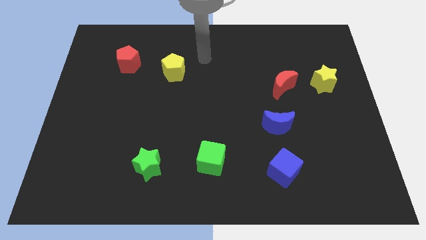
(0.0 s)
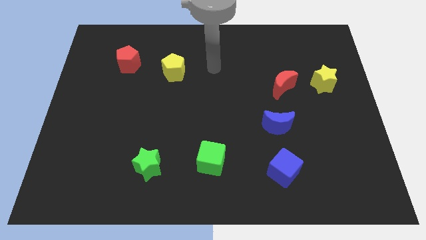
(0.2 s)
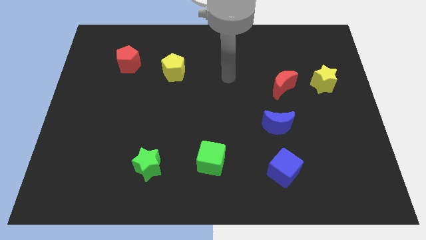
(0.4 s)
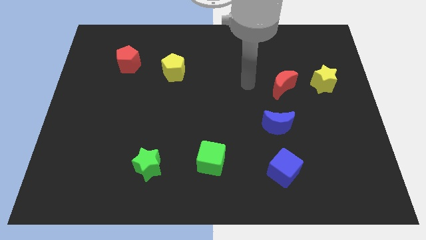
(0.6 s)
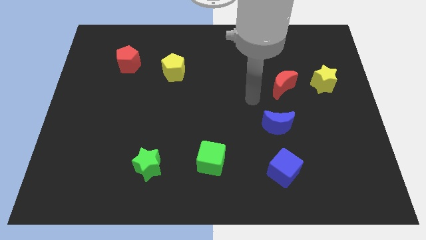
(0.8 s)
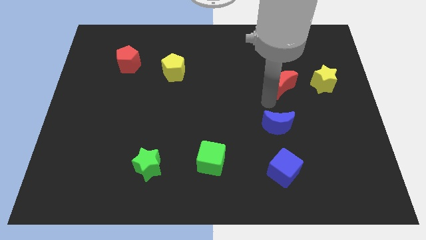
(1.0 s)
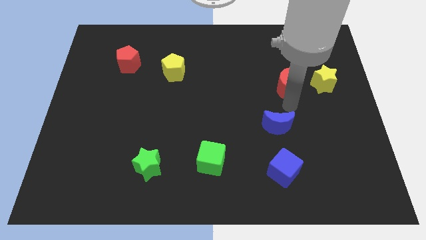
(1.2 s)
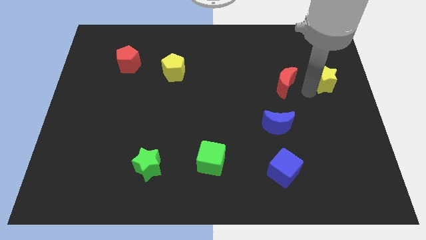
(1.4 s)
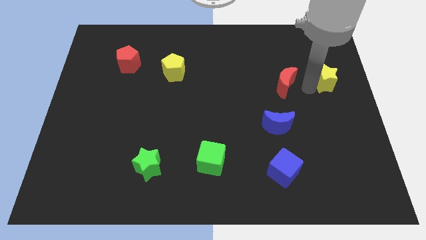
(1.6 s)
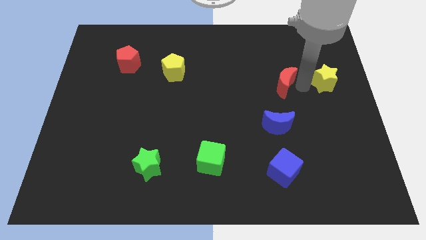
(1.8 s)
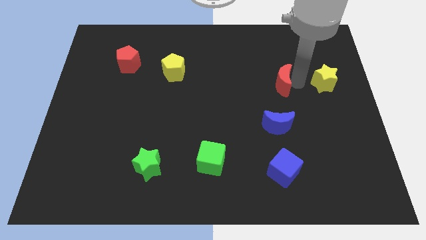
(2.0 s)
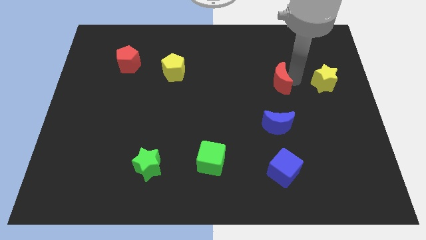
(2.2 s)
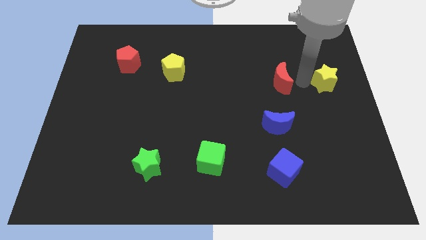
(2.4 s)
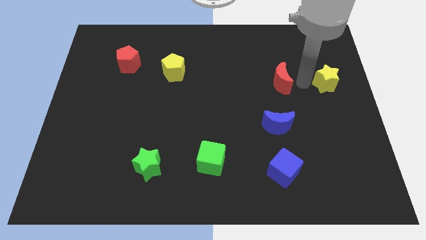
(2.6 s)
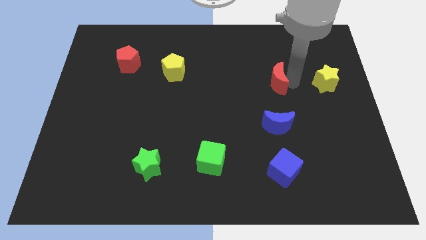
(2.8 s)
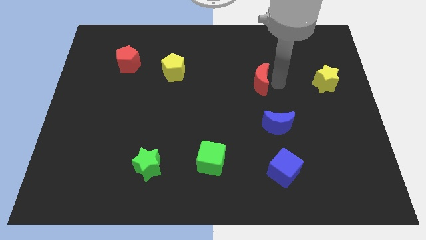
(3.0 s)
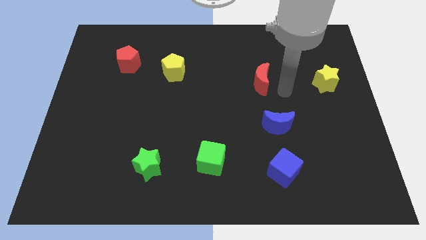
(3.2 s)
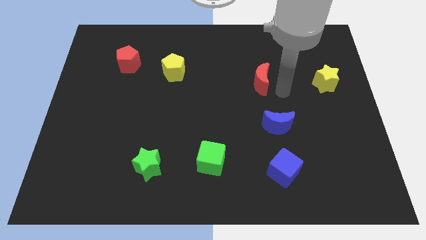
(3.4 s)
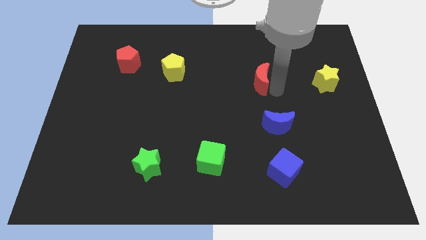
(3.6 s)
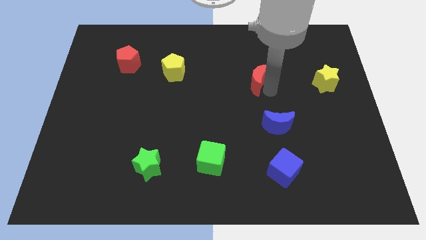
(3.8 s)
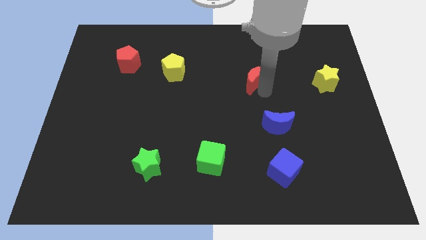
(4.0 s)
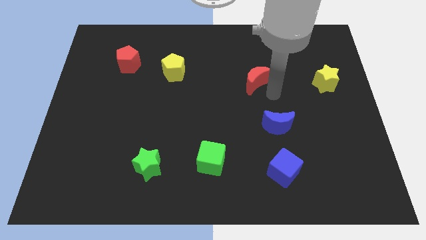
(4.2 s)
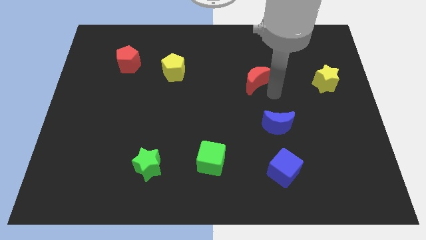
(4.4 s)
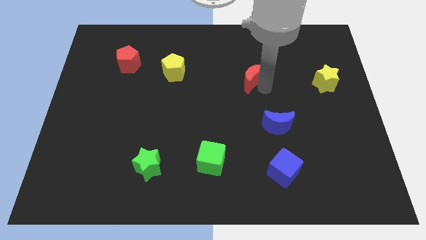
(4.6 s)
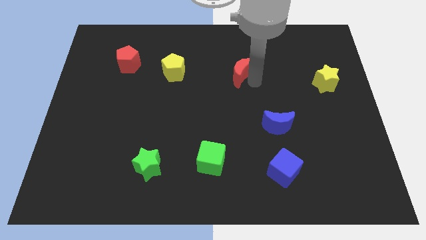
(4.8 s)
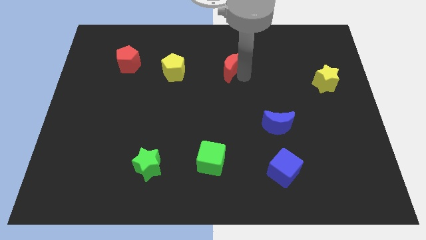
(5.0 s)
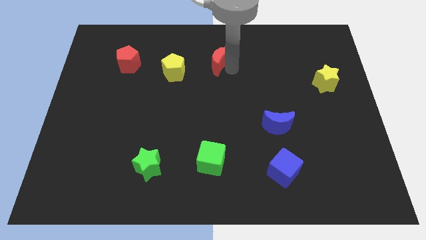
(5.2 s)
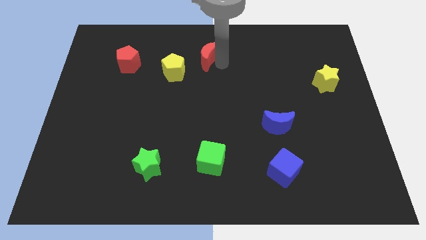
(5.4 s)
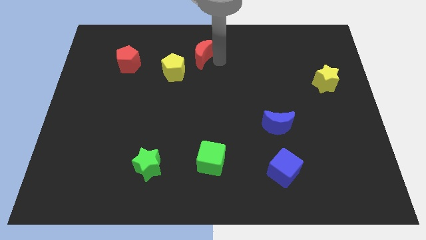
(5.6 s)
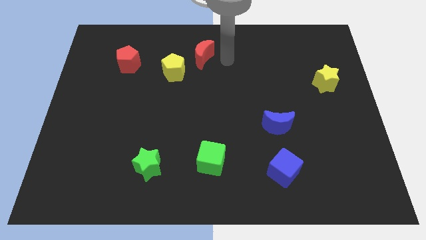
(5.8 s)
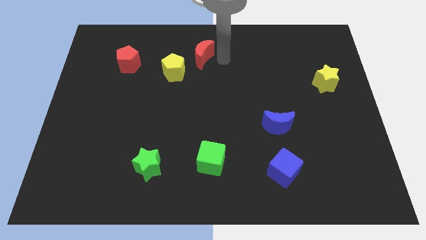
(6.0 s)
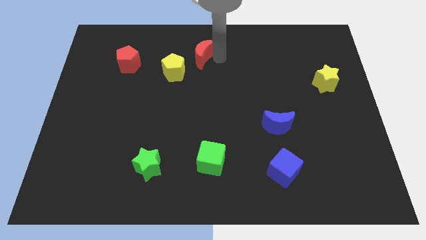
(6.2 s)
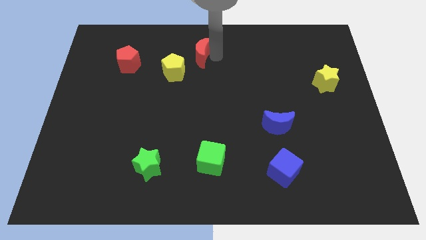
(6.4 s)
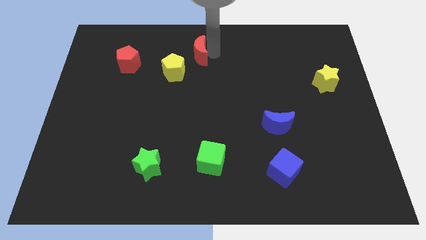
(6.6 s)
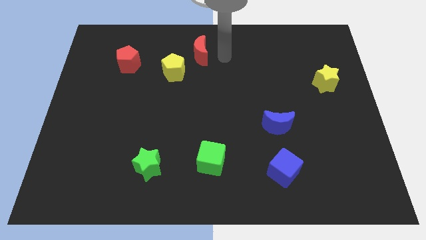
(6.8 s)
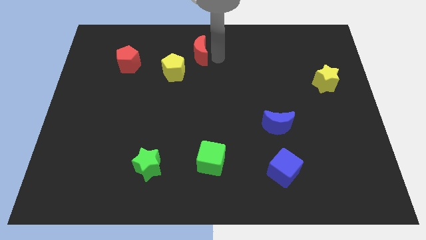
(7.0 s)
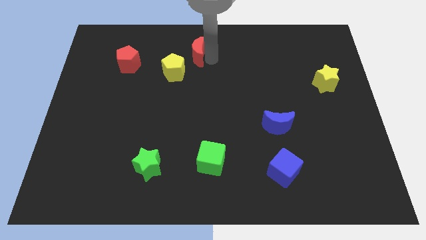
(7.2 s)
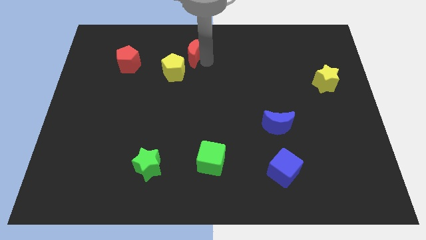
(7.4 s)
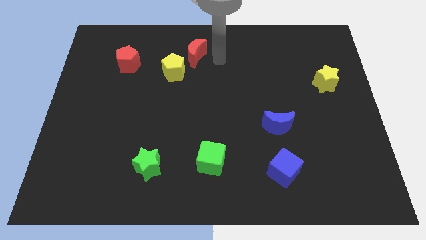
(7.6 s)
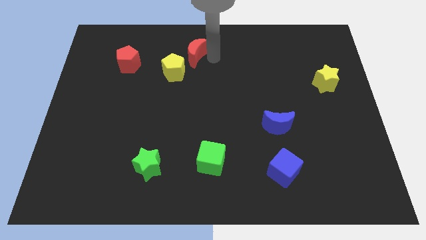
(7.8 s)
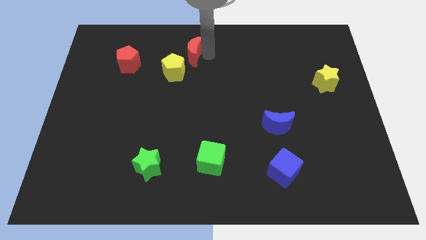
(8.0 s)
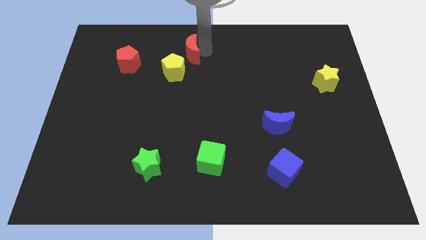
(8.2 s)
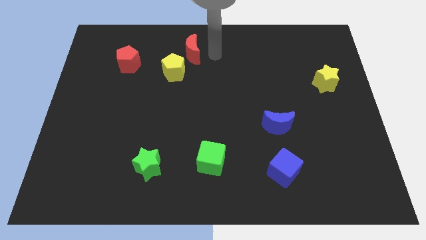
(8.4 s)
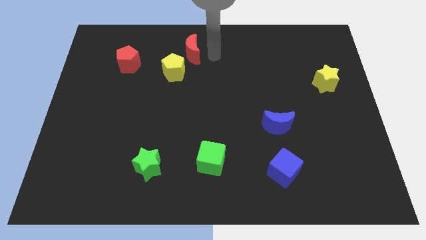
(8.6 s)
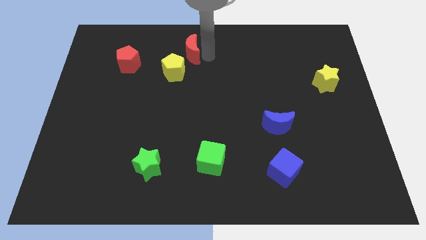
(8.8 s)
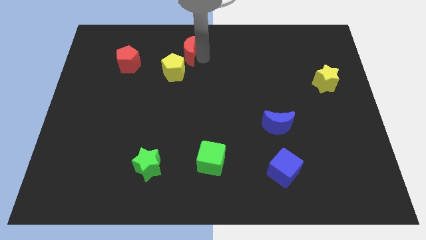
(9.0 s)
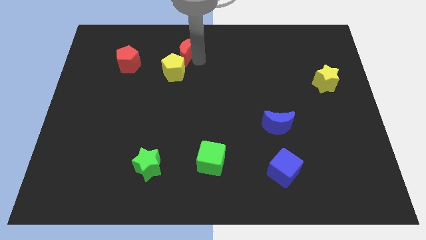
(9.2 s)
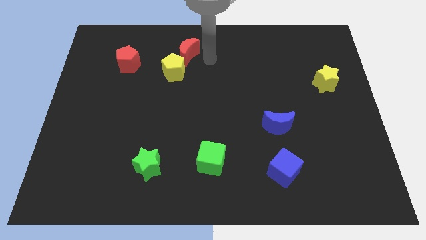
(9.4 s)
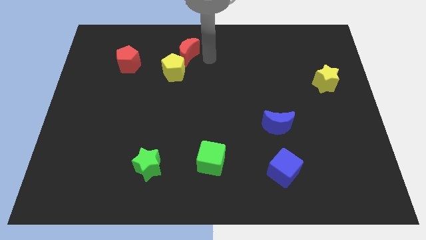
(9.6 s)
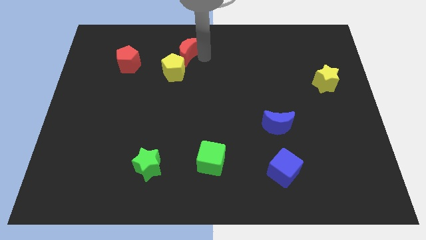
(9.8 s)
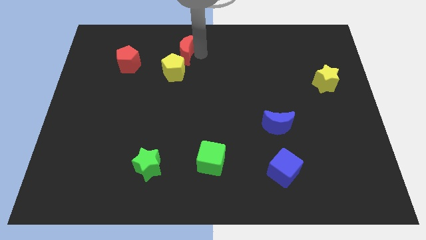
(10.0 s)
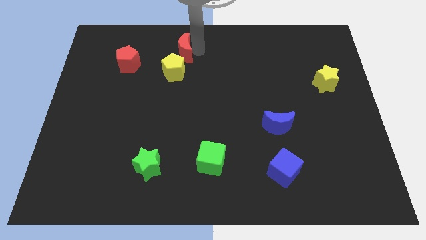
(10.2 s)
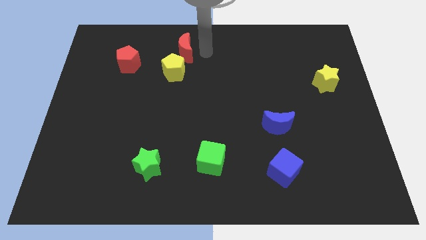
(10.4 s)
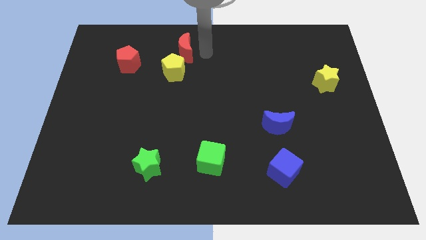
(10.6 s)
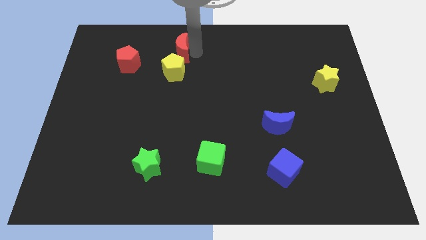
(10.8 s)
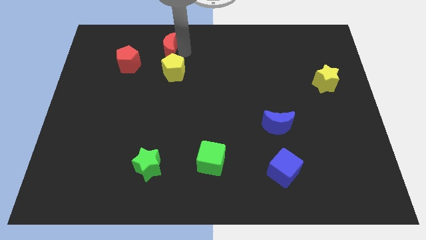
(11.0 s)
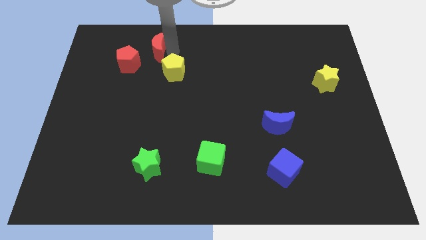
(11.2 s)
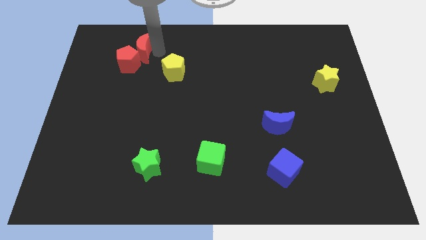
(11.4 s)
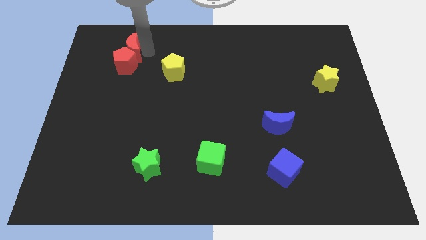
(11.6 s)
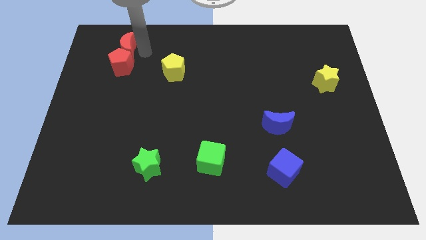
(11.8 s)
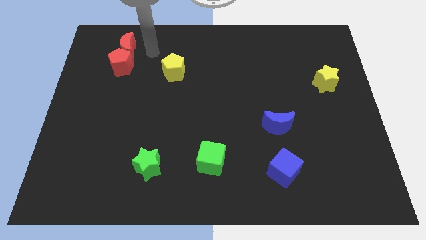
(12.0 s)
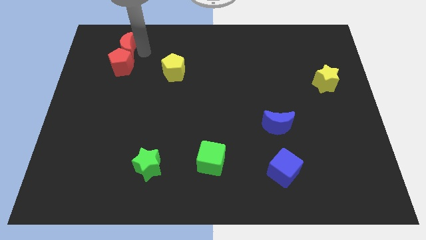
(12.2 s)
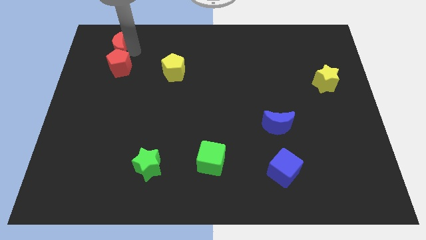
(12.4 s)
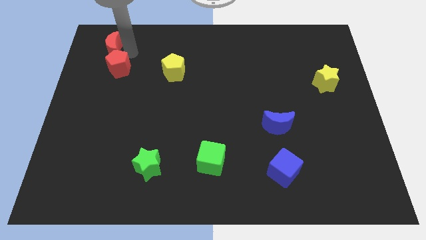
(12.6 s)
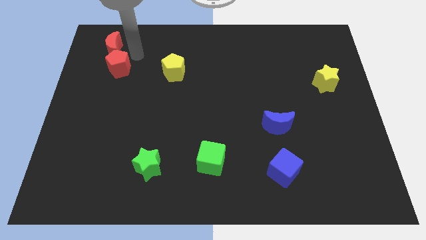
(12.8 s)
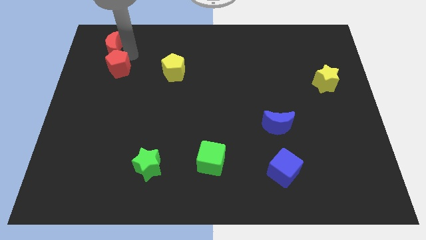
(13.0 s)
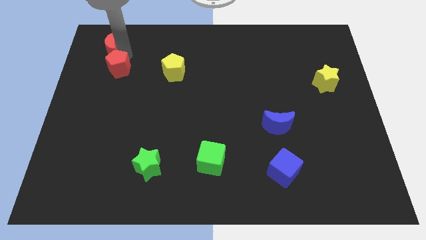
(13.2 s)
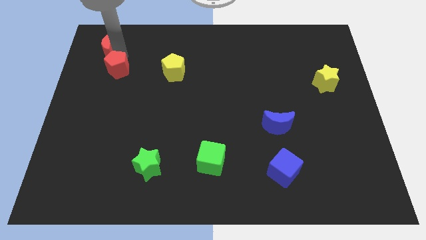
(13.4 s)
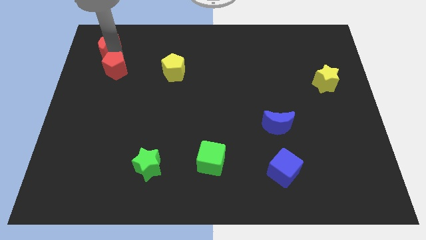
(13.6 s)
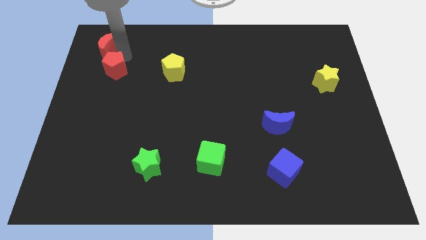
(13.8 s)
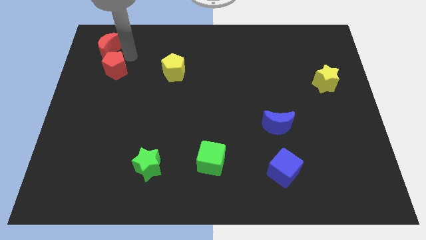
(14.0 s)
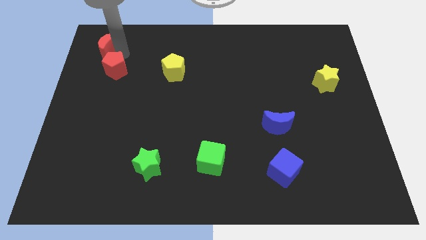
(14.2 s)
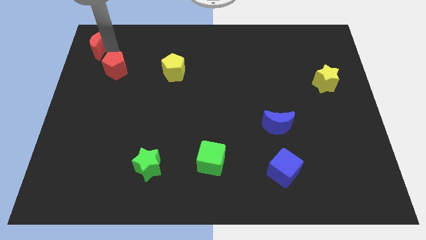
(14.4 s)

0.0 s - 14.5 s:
push the red moon to the upper left corner
